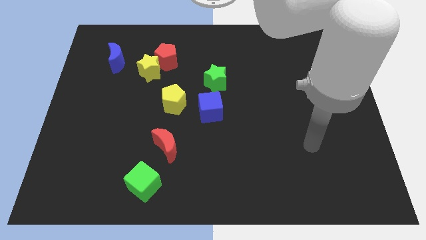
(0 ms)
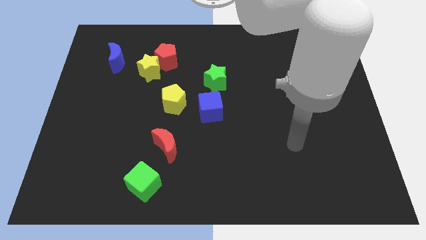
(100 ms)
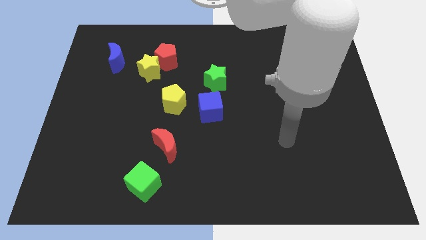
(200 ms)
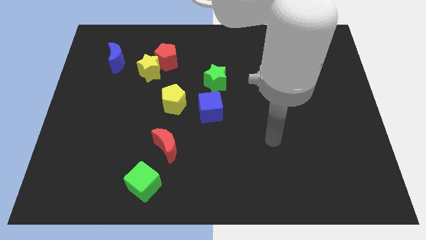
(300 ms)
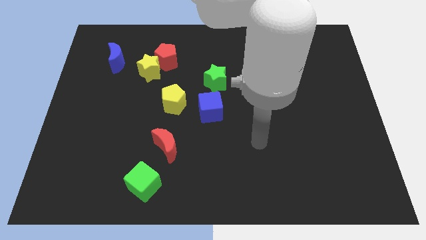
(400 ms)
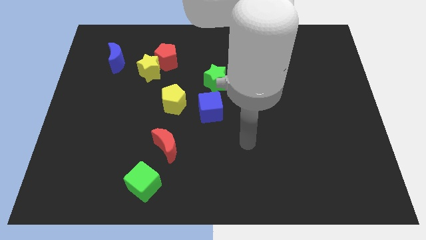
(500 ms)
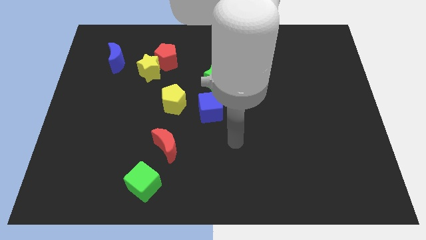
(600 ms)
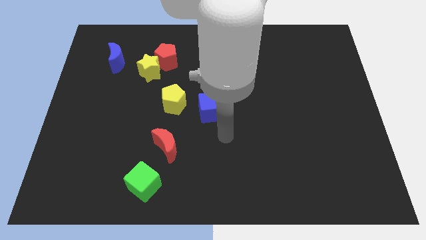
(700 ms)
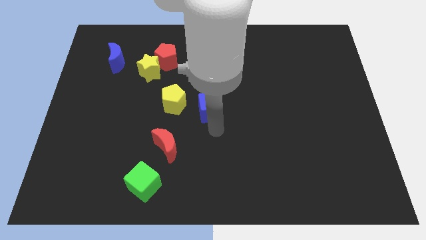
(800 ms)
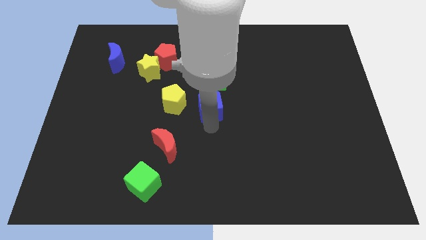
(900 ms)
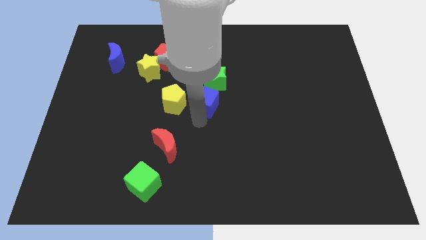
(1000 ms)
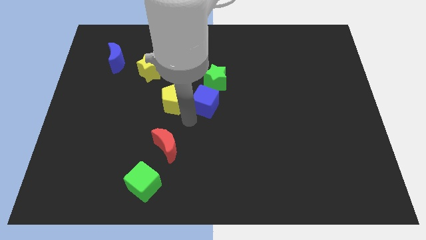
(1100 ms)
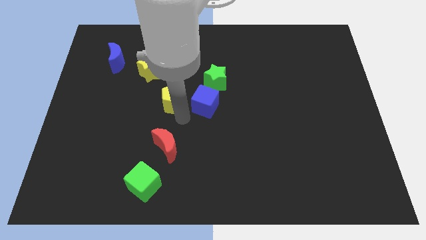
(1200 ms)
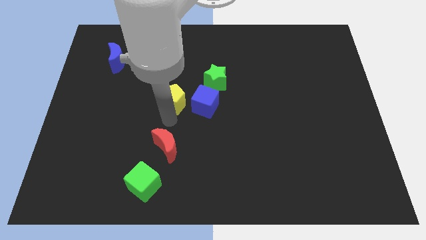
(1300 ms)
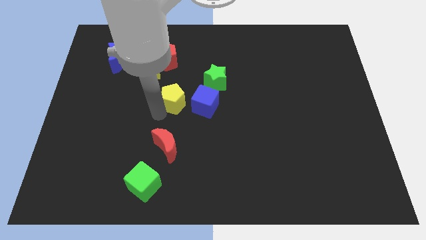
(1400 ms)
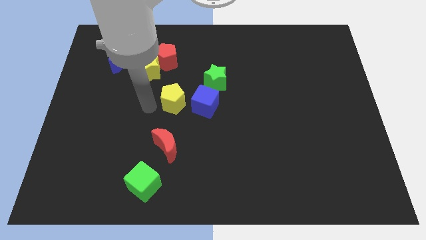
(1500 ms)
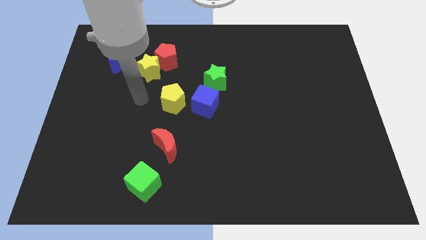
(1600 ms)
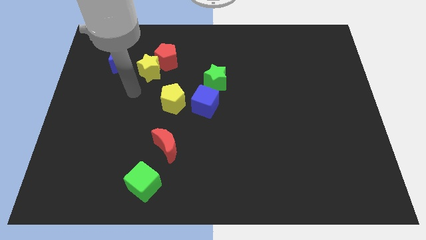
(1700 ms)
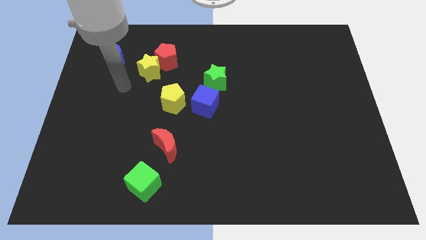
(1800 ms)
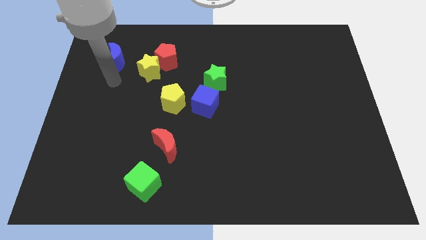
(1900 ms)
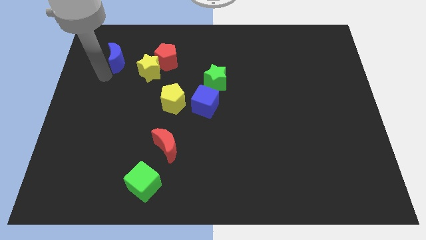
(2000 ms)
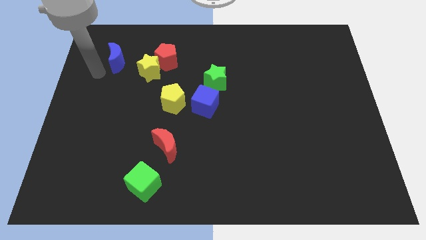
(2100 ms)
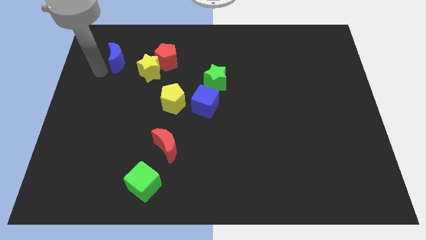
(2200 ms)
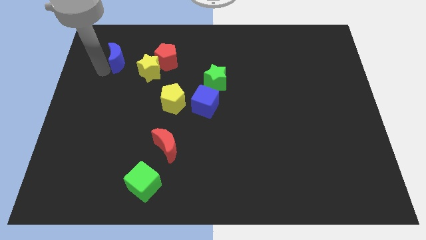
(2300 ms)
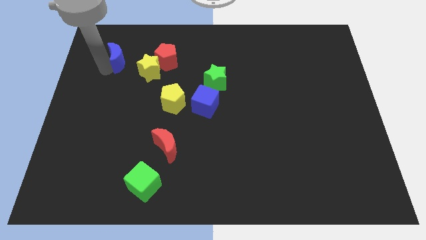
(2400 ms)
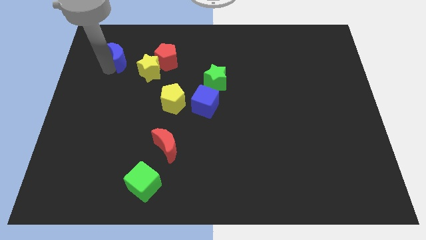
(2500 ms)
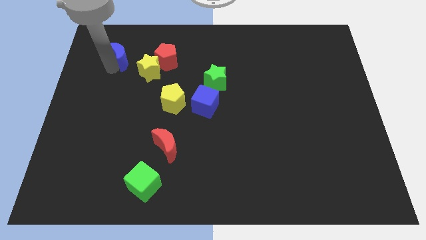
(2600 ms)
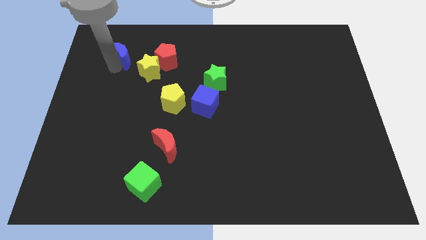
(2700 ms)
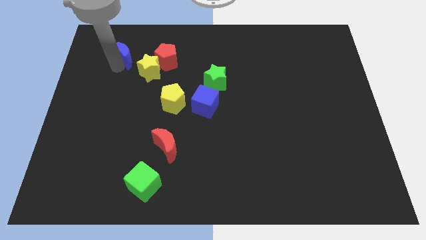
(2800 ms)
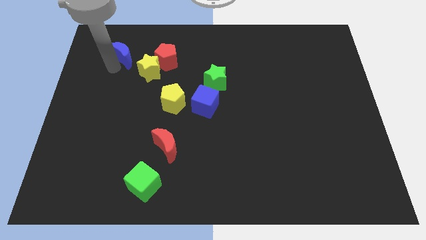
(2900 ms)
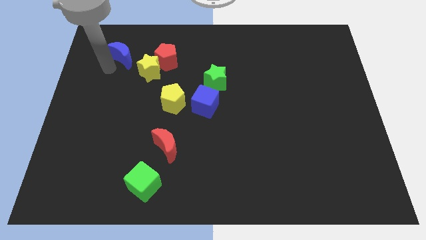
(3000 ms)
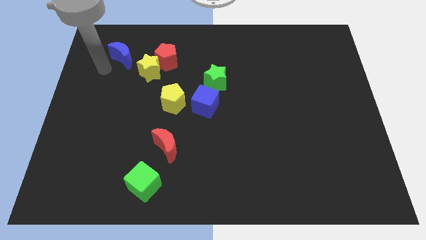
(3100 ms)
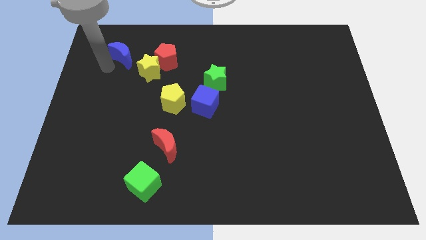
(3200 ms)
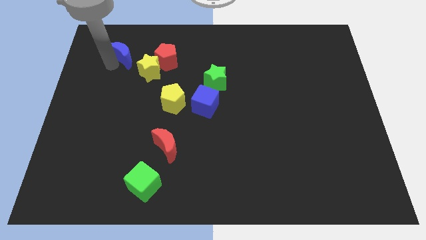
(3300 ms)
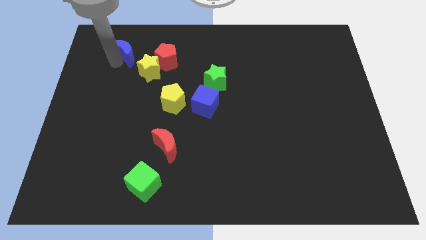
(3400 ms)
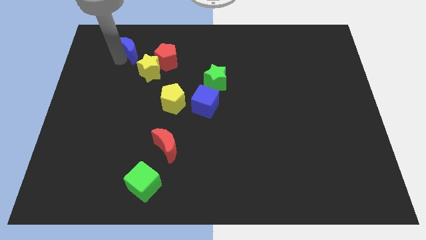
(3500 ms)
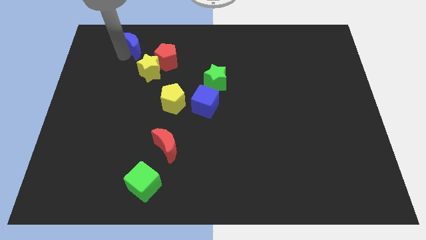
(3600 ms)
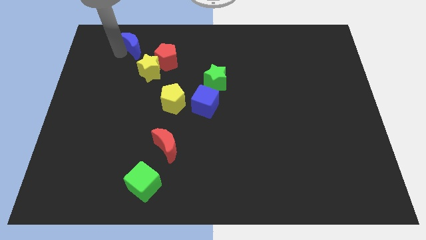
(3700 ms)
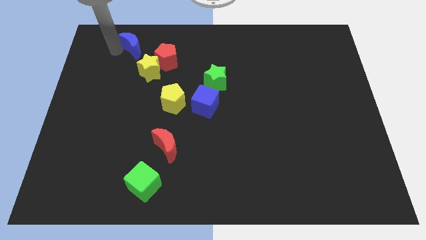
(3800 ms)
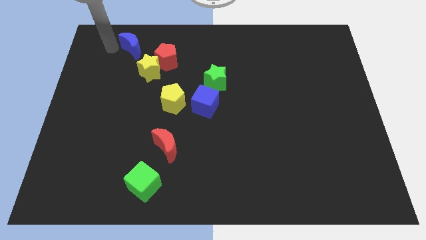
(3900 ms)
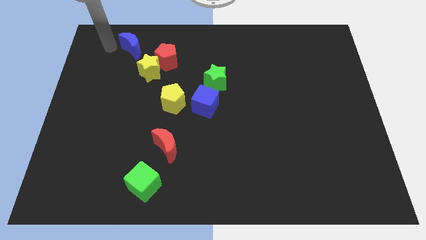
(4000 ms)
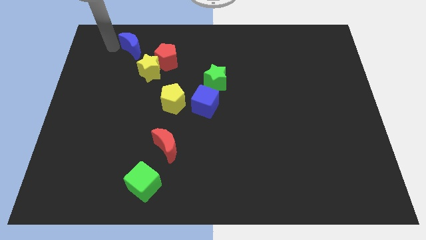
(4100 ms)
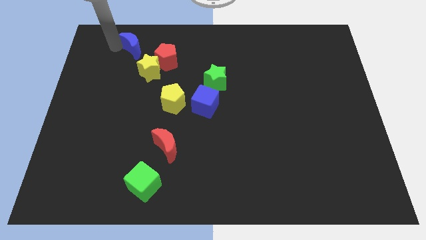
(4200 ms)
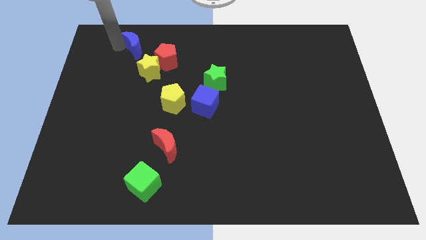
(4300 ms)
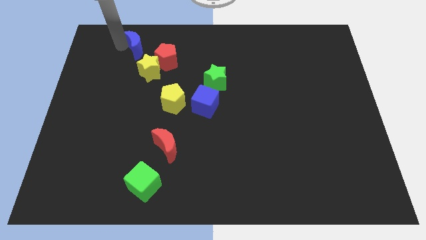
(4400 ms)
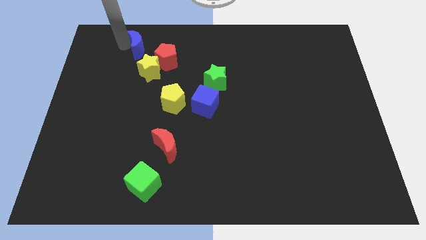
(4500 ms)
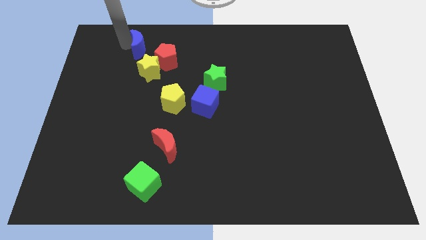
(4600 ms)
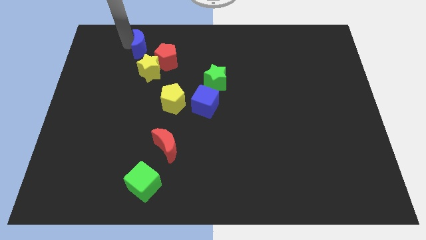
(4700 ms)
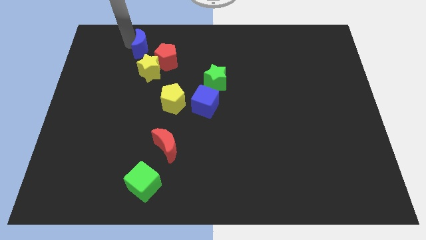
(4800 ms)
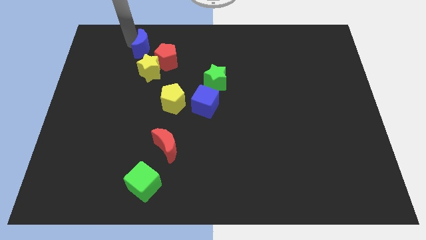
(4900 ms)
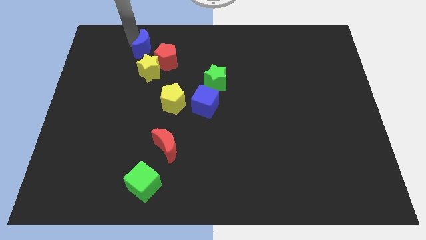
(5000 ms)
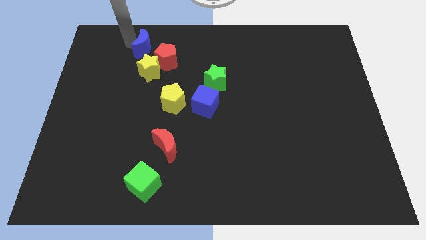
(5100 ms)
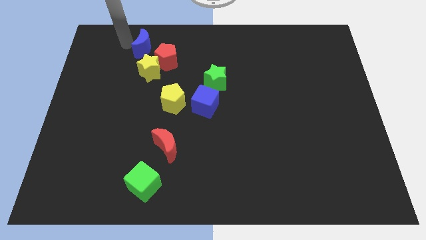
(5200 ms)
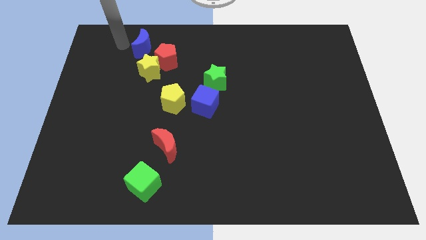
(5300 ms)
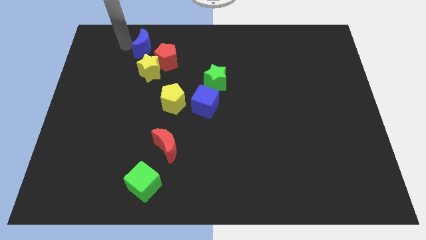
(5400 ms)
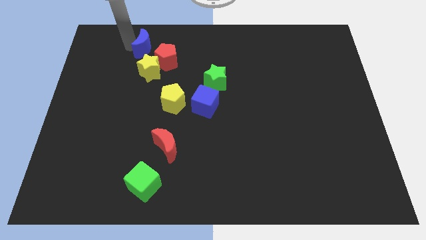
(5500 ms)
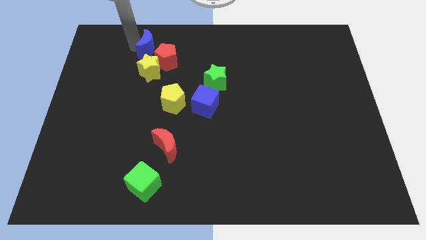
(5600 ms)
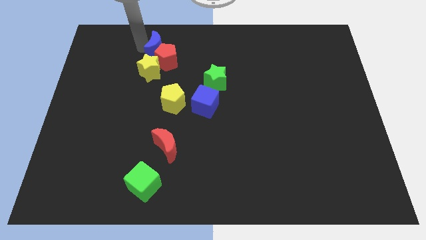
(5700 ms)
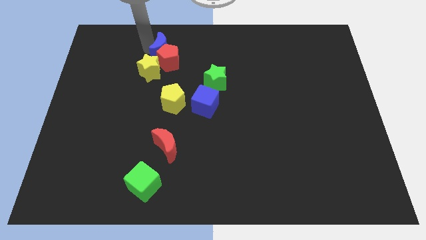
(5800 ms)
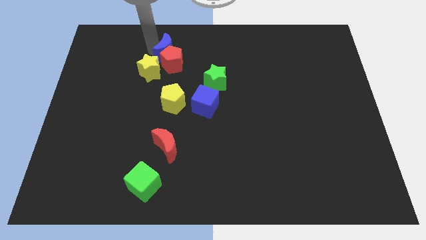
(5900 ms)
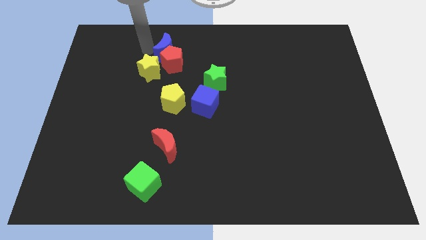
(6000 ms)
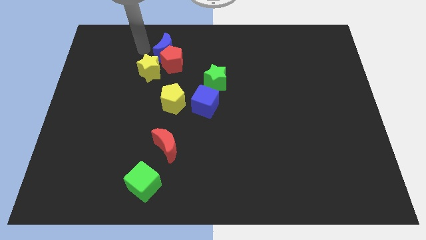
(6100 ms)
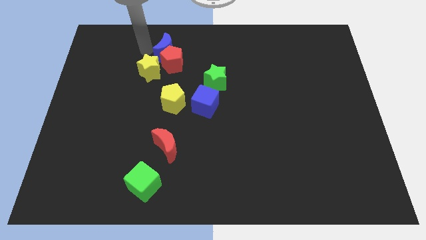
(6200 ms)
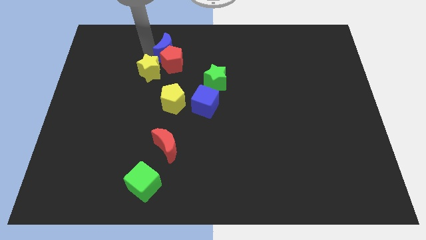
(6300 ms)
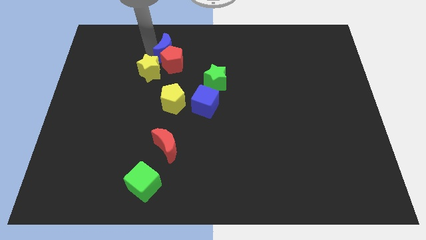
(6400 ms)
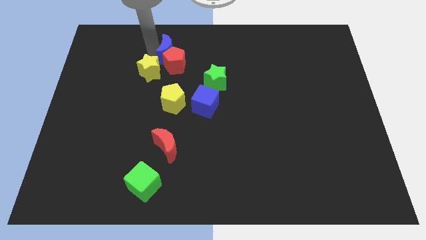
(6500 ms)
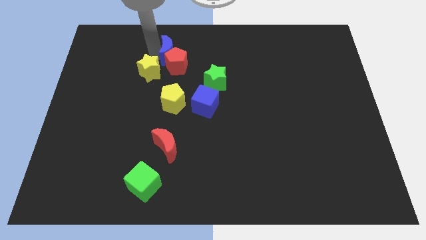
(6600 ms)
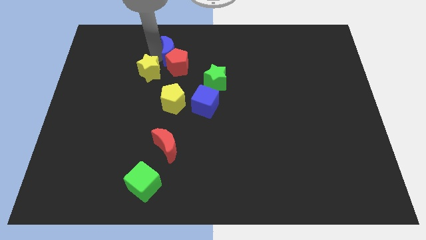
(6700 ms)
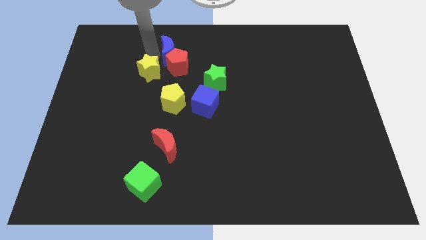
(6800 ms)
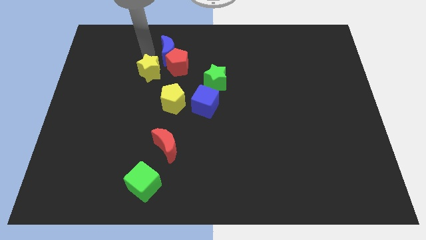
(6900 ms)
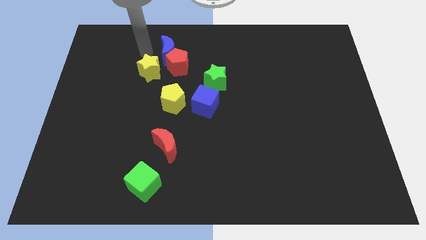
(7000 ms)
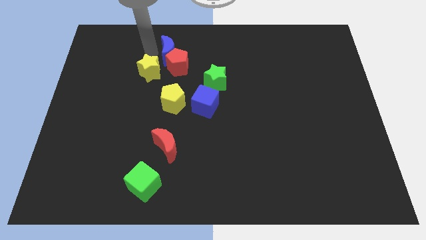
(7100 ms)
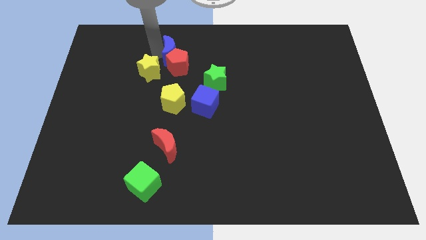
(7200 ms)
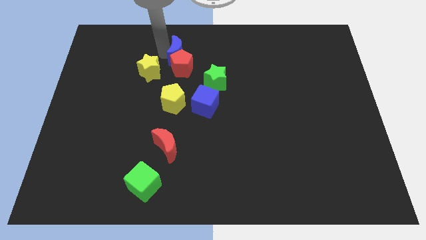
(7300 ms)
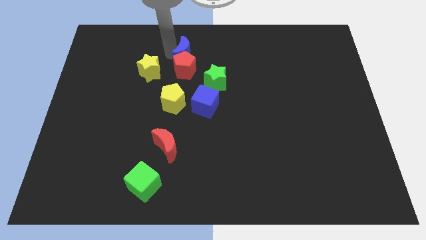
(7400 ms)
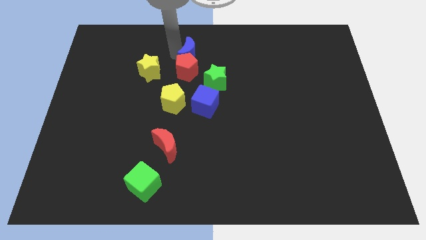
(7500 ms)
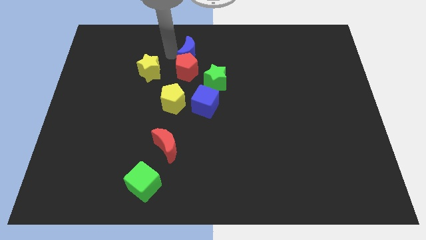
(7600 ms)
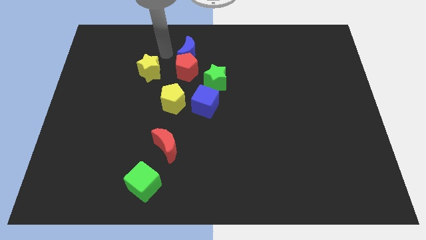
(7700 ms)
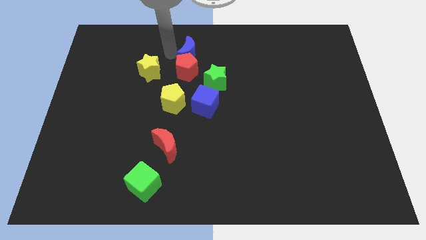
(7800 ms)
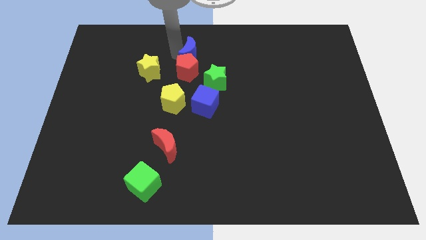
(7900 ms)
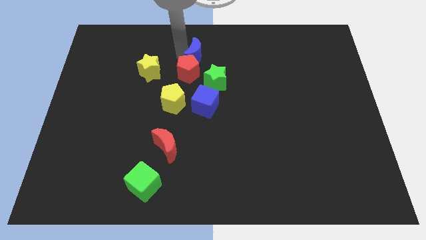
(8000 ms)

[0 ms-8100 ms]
move the blue moon to the right

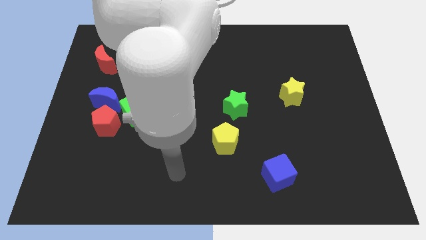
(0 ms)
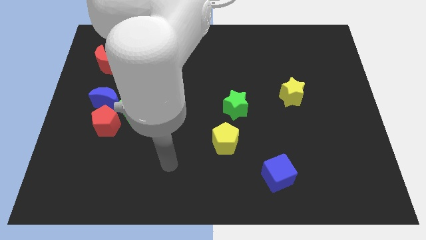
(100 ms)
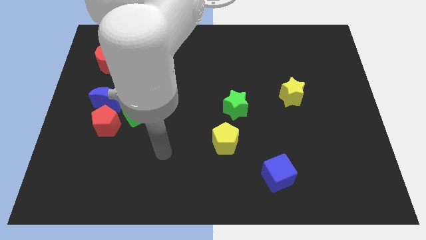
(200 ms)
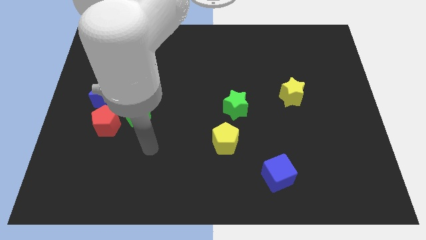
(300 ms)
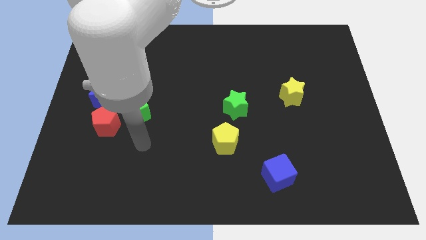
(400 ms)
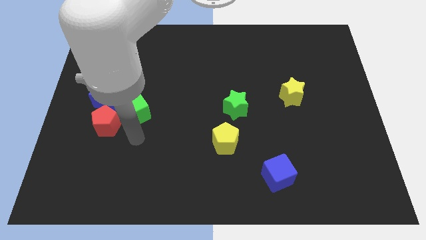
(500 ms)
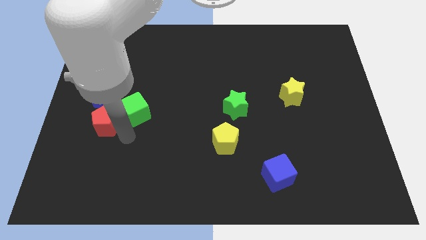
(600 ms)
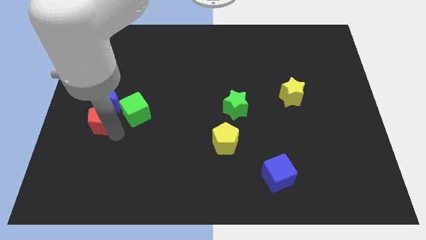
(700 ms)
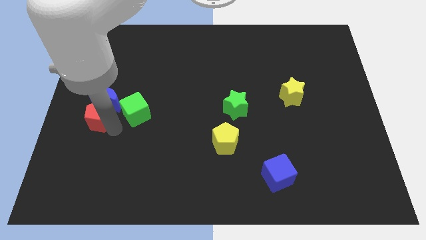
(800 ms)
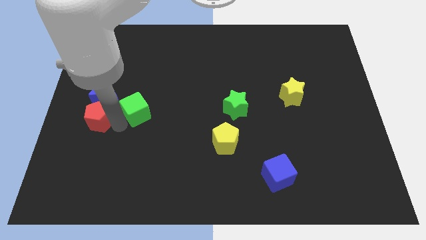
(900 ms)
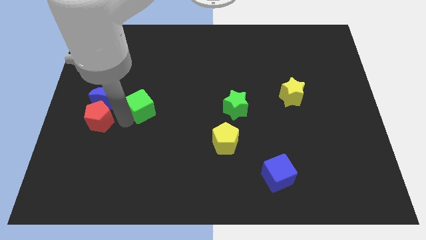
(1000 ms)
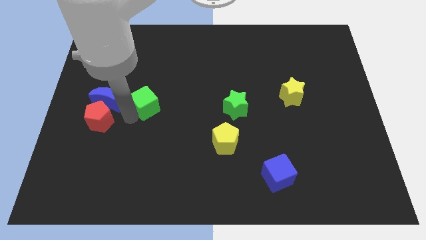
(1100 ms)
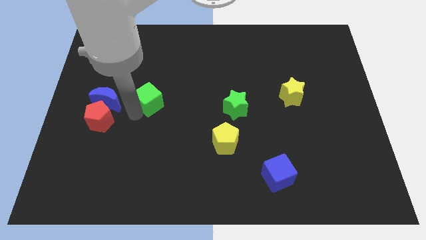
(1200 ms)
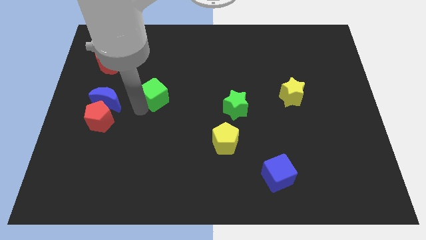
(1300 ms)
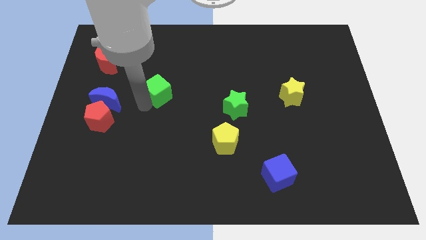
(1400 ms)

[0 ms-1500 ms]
slightly slide the green cube upwards and then to the right
